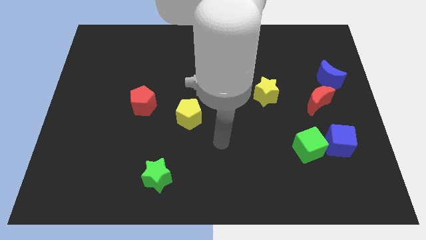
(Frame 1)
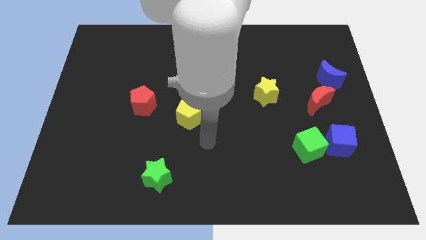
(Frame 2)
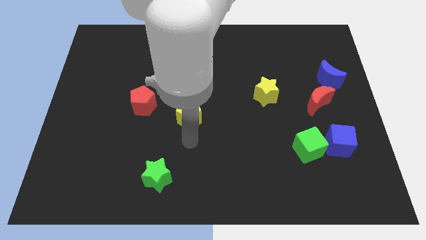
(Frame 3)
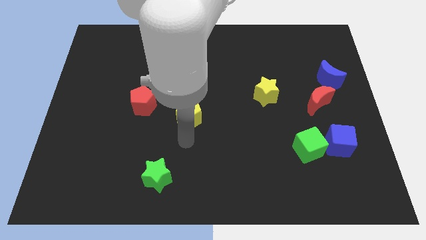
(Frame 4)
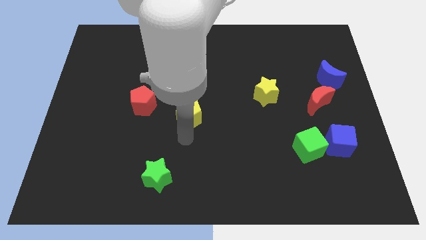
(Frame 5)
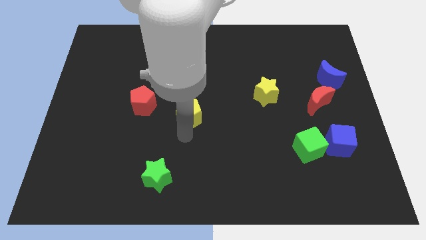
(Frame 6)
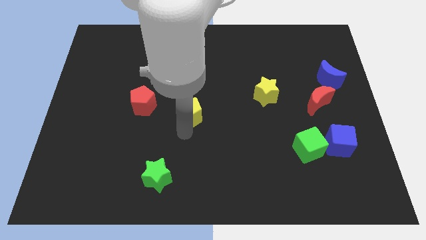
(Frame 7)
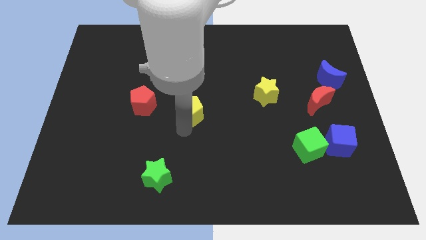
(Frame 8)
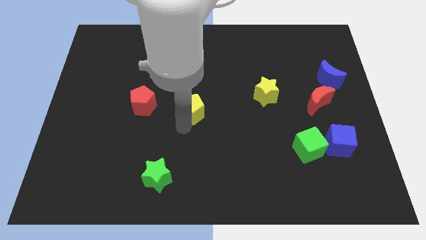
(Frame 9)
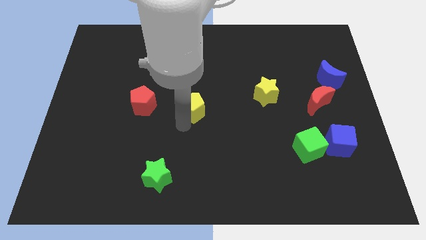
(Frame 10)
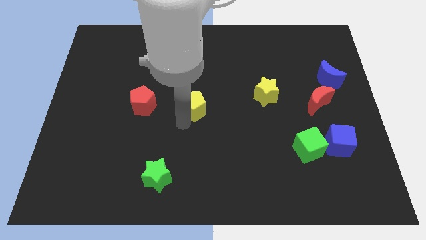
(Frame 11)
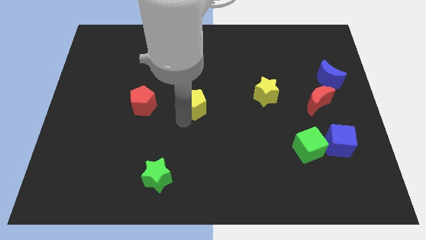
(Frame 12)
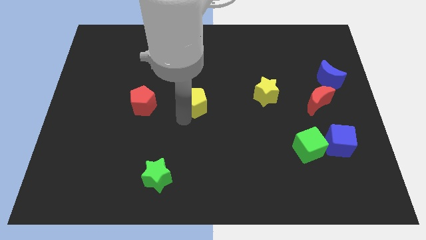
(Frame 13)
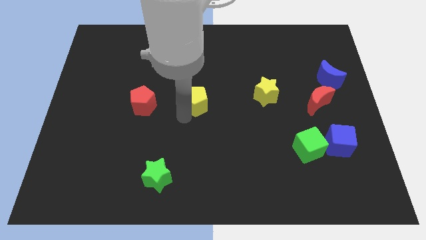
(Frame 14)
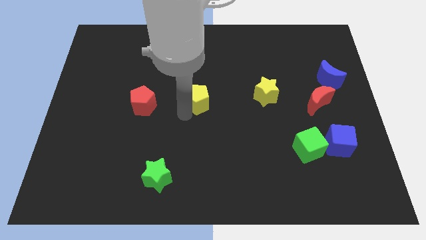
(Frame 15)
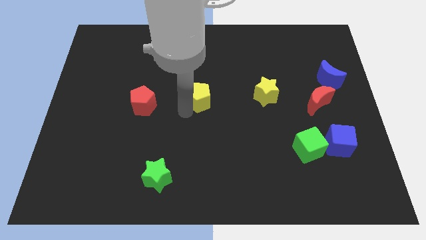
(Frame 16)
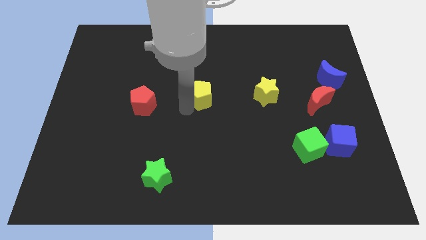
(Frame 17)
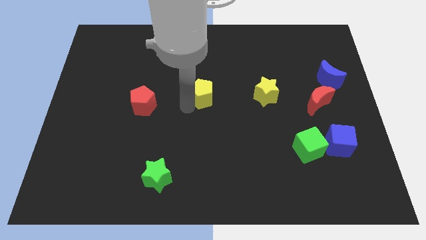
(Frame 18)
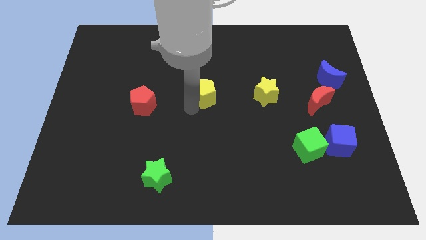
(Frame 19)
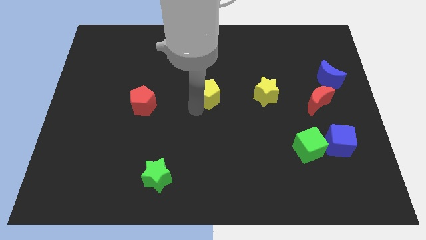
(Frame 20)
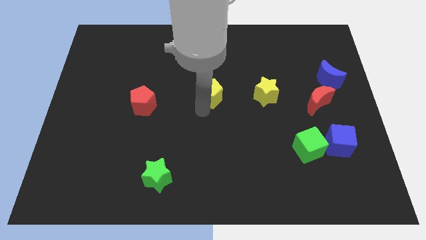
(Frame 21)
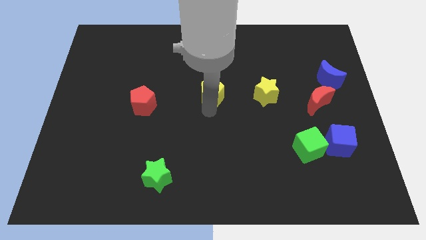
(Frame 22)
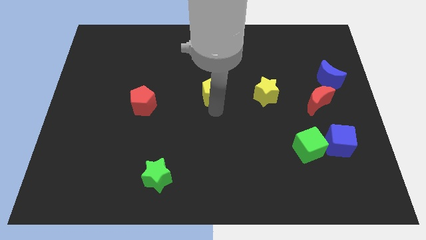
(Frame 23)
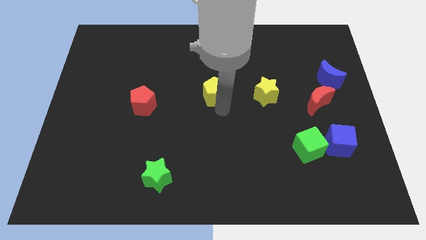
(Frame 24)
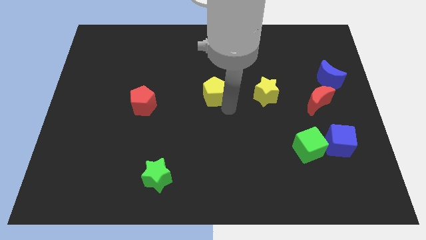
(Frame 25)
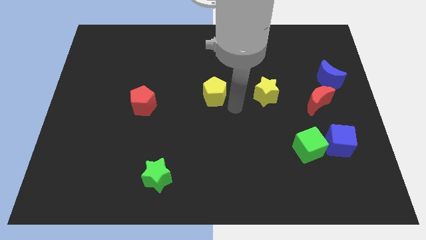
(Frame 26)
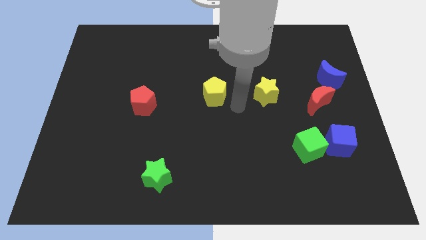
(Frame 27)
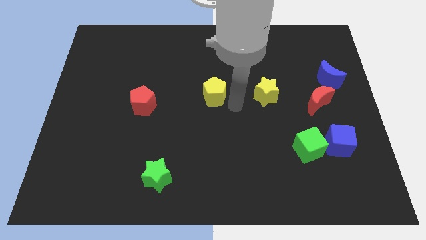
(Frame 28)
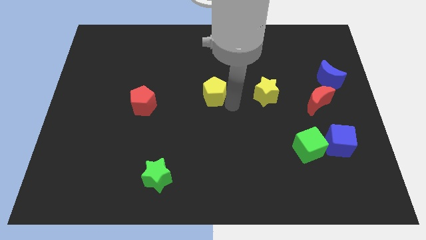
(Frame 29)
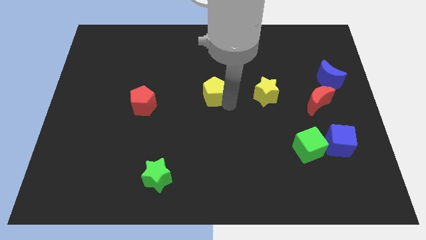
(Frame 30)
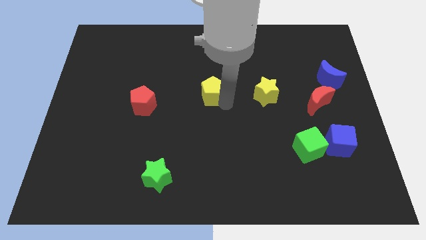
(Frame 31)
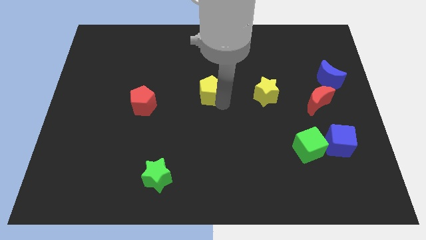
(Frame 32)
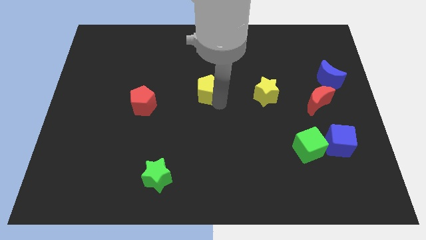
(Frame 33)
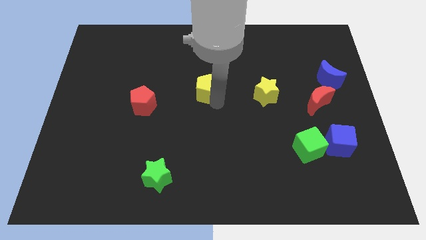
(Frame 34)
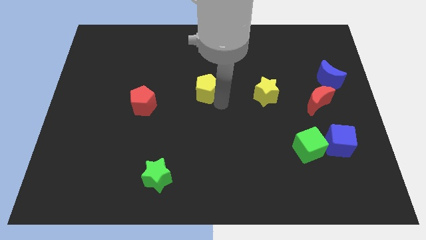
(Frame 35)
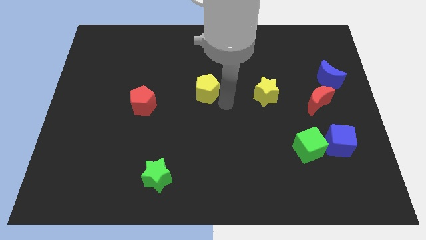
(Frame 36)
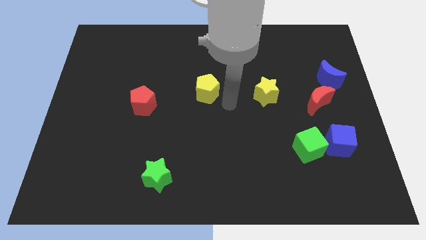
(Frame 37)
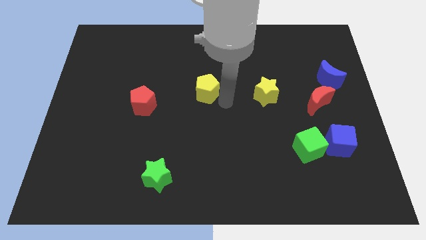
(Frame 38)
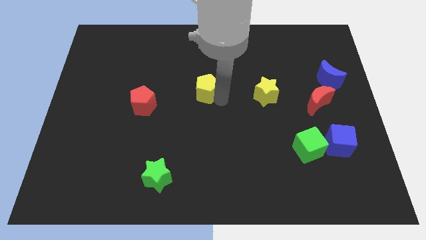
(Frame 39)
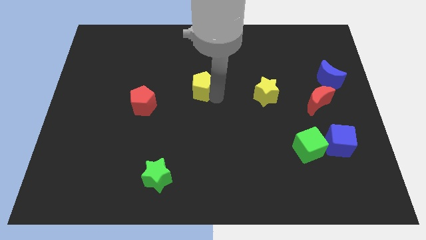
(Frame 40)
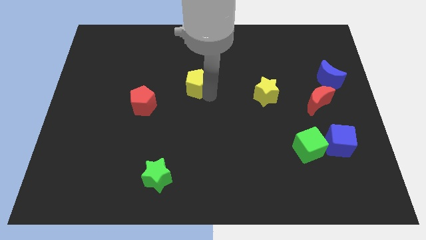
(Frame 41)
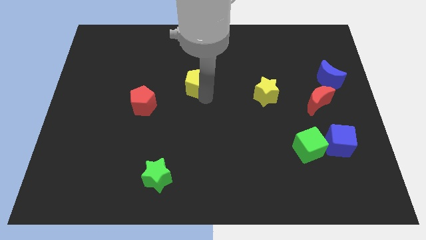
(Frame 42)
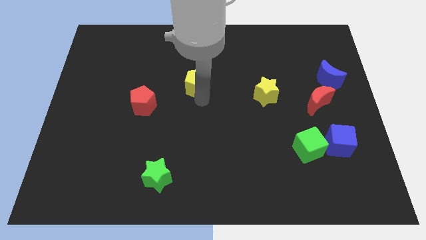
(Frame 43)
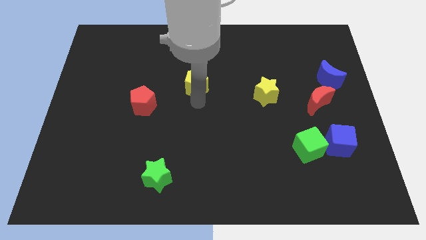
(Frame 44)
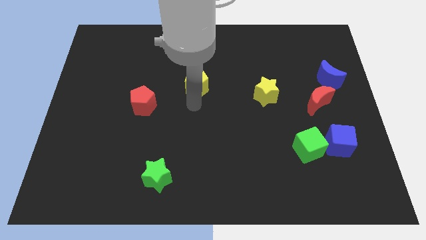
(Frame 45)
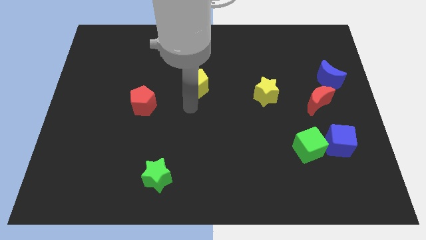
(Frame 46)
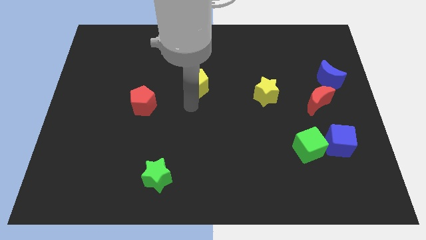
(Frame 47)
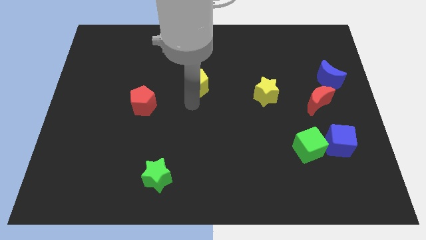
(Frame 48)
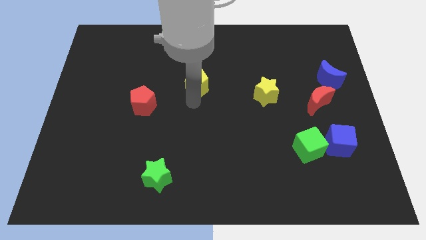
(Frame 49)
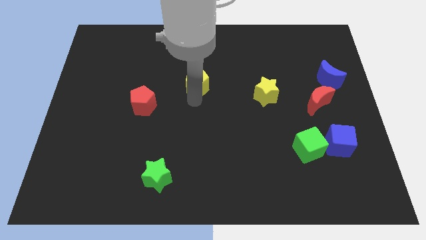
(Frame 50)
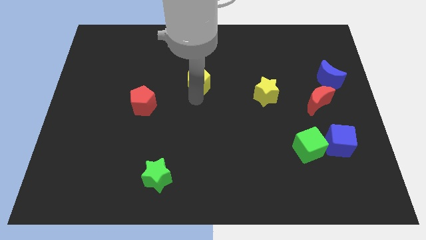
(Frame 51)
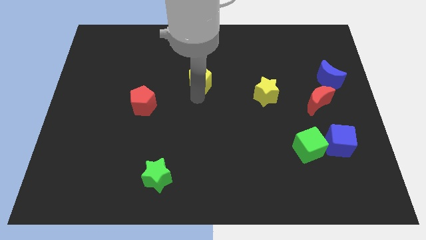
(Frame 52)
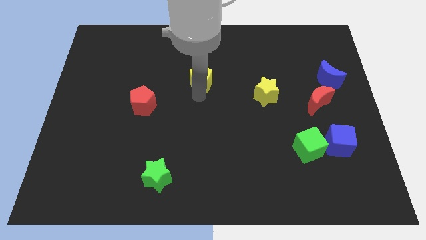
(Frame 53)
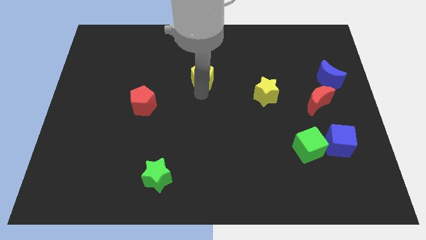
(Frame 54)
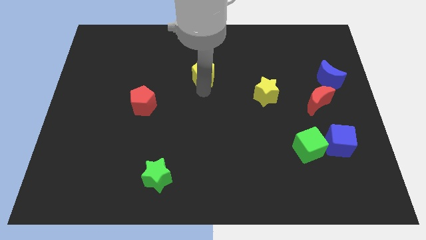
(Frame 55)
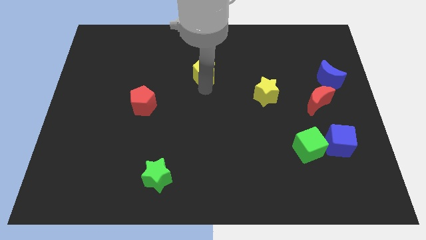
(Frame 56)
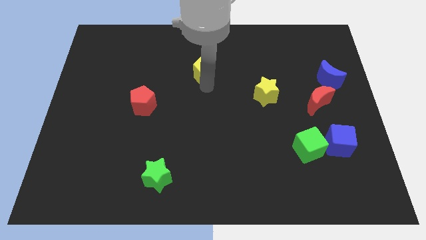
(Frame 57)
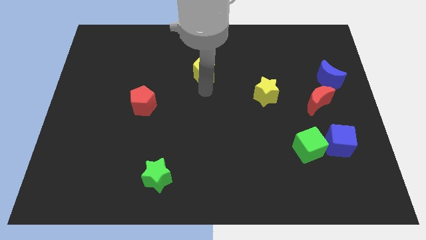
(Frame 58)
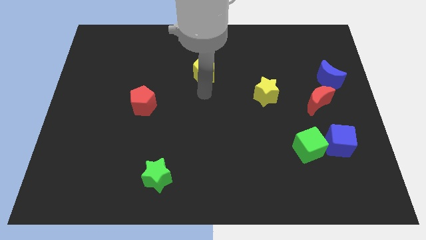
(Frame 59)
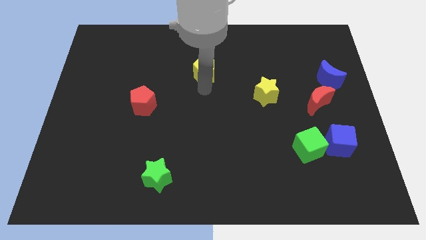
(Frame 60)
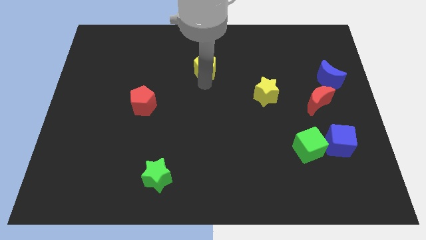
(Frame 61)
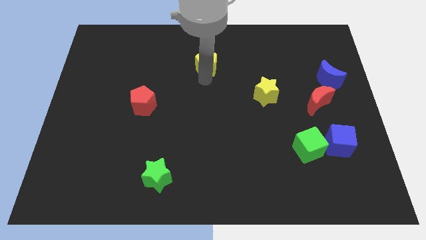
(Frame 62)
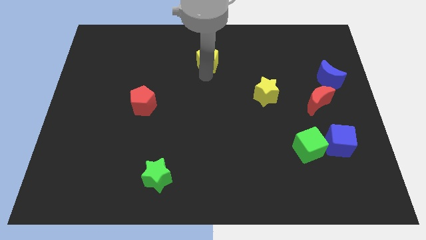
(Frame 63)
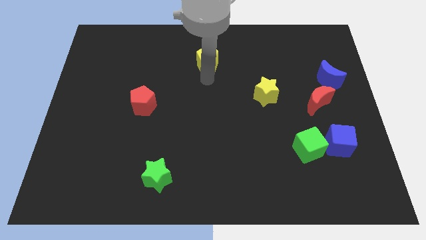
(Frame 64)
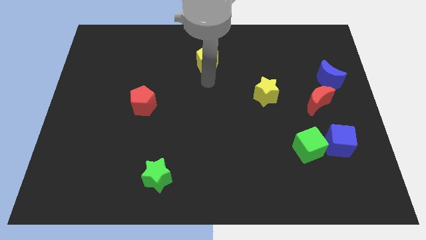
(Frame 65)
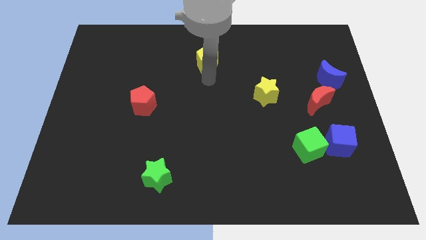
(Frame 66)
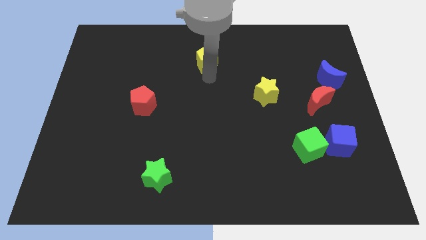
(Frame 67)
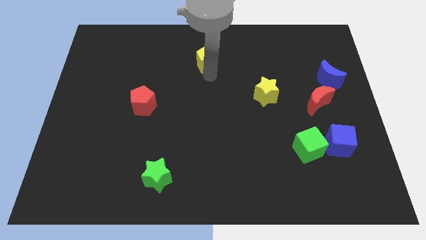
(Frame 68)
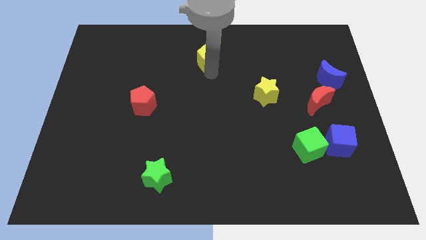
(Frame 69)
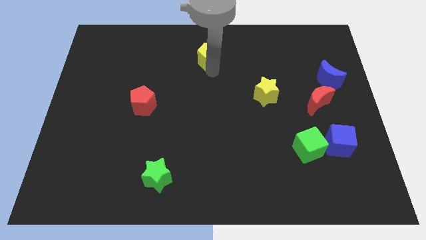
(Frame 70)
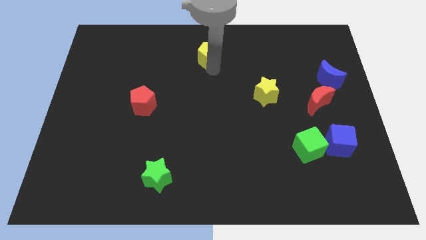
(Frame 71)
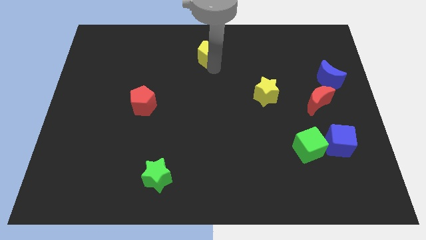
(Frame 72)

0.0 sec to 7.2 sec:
push the yellow pentagon to the top side
